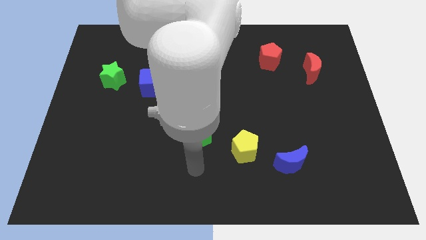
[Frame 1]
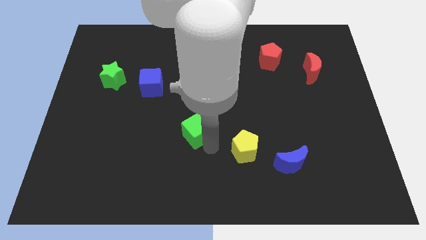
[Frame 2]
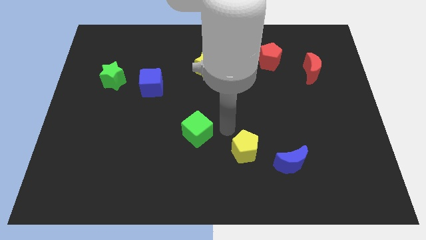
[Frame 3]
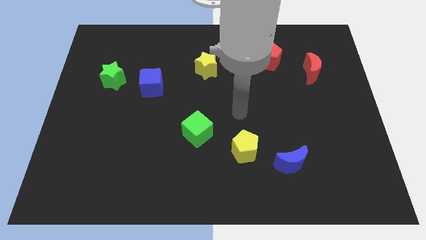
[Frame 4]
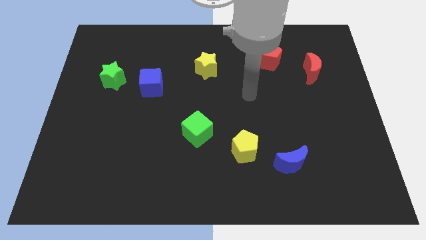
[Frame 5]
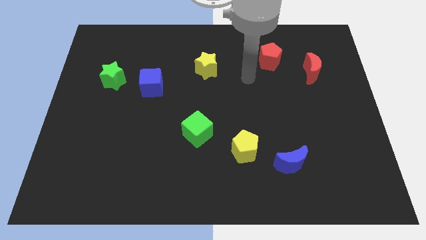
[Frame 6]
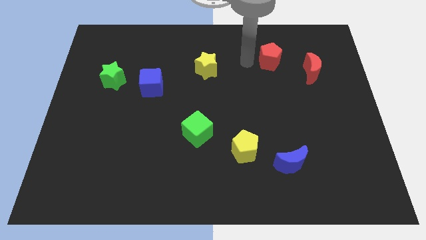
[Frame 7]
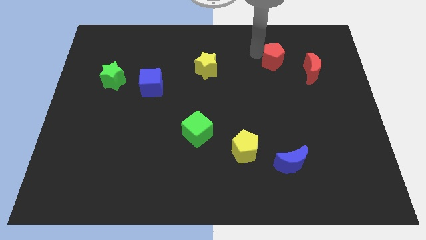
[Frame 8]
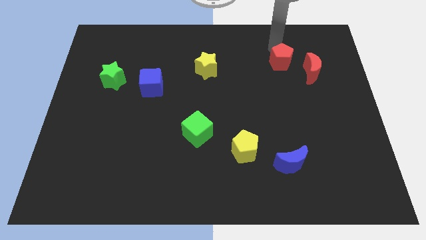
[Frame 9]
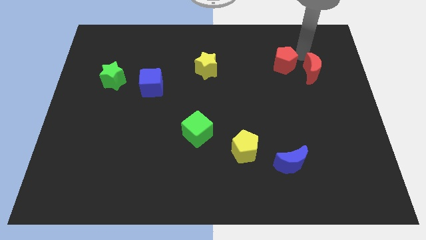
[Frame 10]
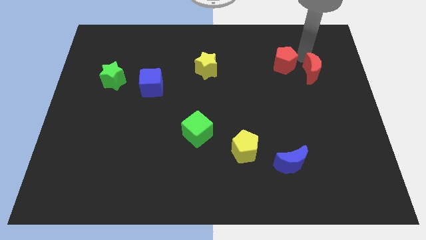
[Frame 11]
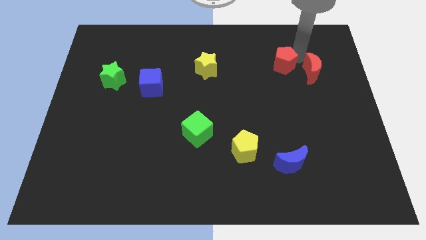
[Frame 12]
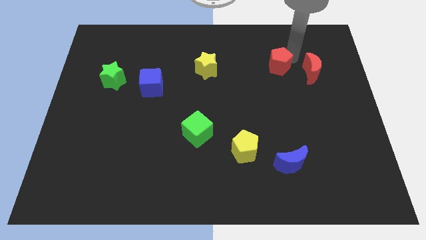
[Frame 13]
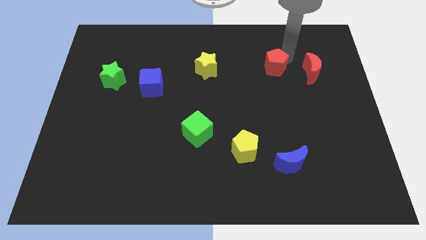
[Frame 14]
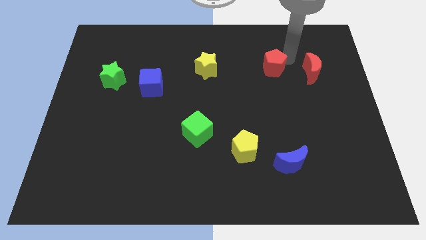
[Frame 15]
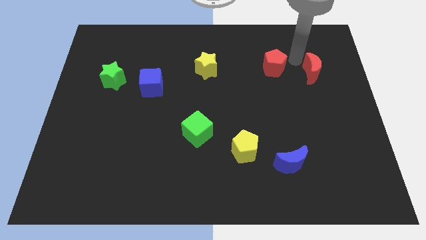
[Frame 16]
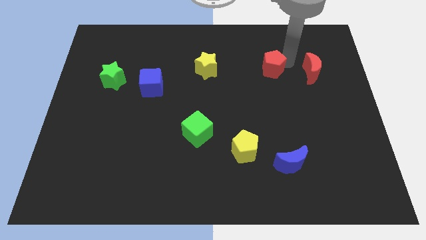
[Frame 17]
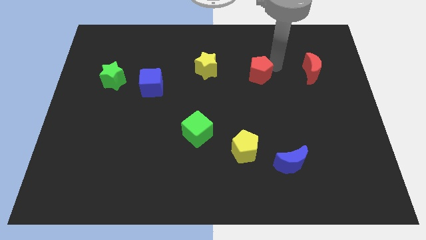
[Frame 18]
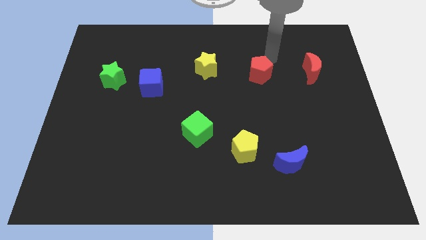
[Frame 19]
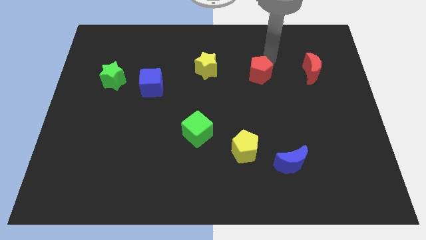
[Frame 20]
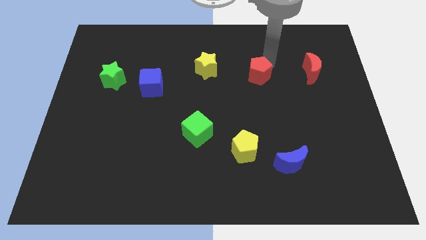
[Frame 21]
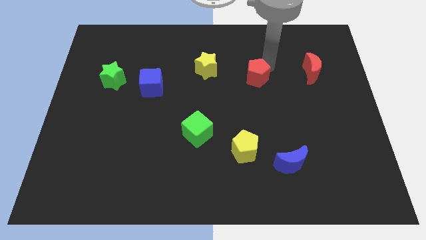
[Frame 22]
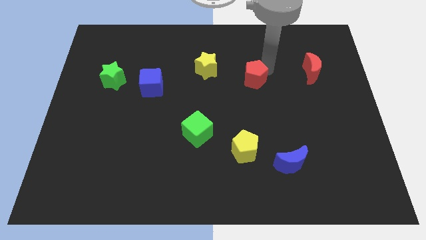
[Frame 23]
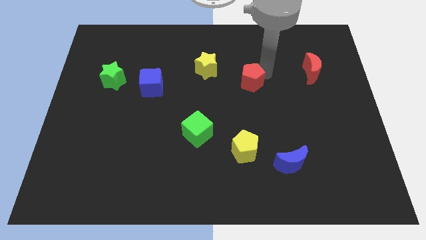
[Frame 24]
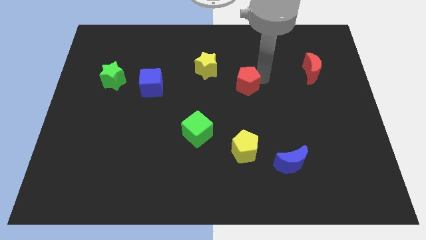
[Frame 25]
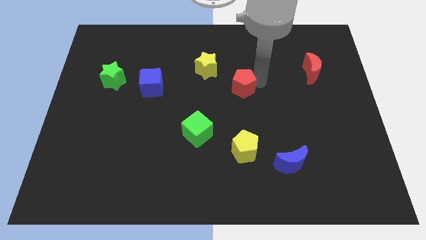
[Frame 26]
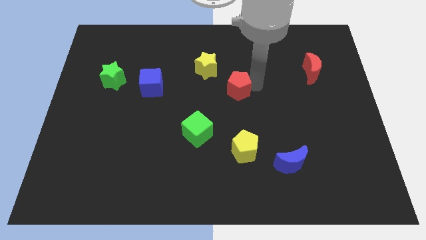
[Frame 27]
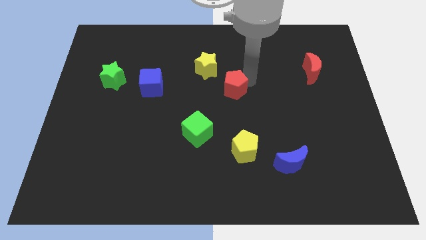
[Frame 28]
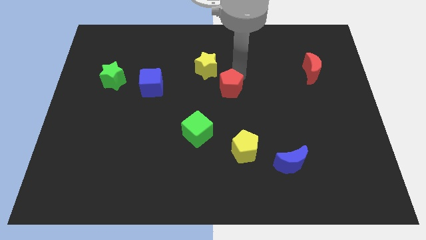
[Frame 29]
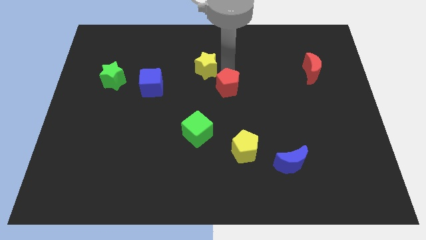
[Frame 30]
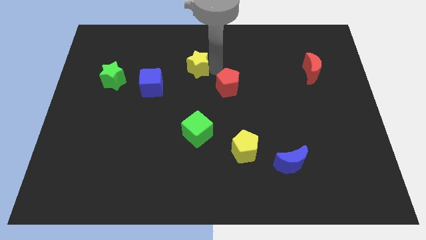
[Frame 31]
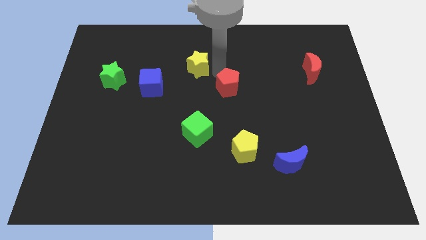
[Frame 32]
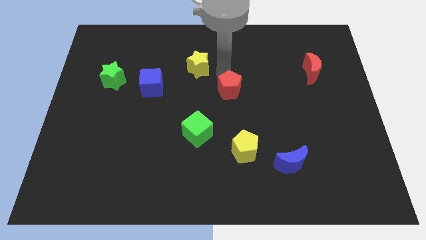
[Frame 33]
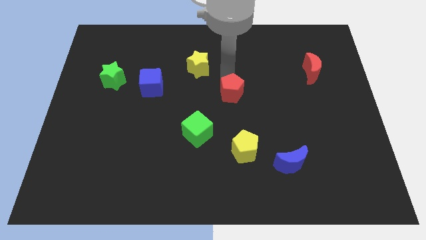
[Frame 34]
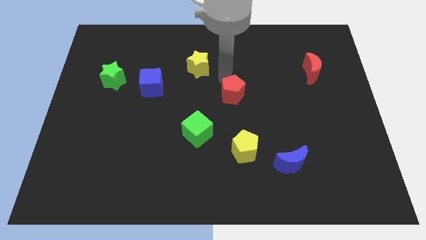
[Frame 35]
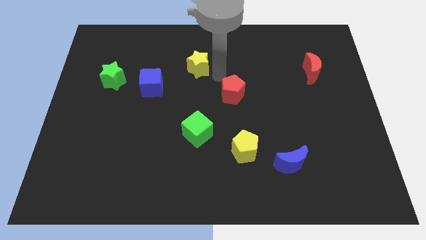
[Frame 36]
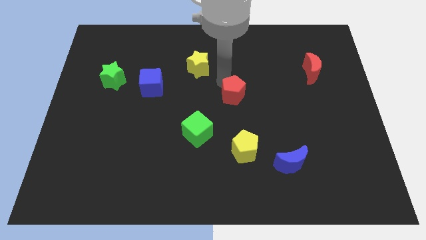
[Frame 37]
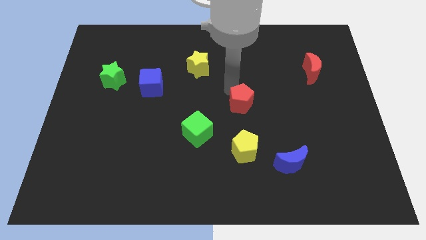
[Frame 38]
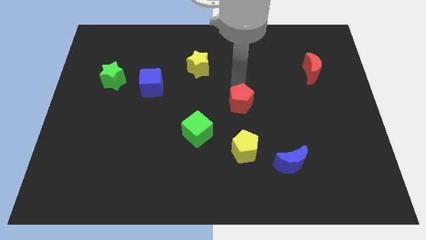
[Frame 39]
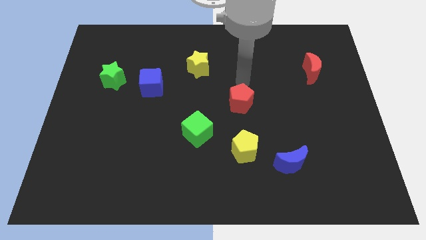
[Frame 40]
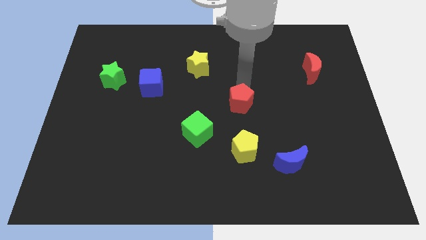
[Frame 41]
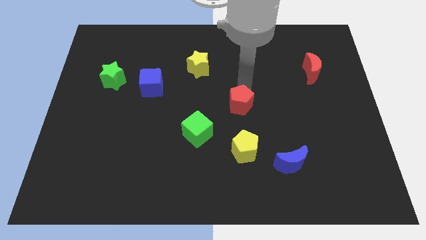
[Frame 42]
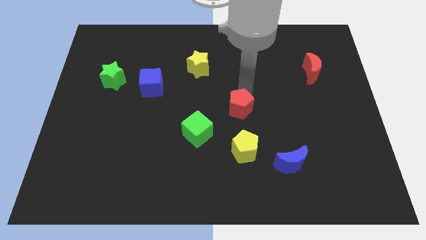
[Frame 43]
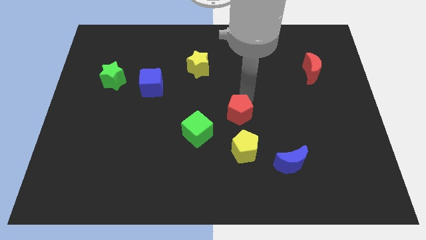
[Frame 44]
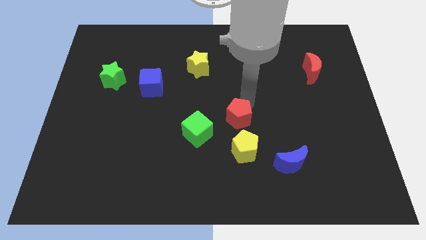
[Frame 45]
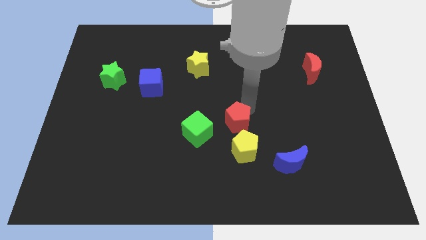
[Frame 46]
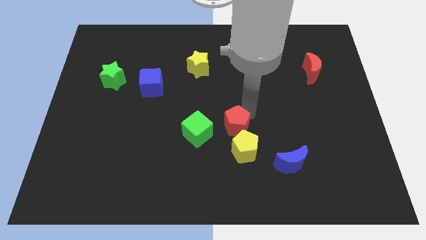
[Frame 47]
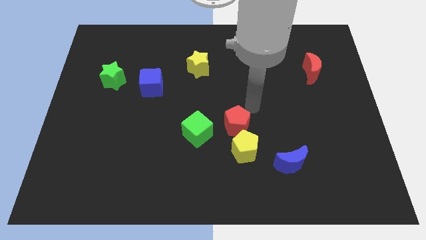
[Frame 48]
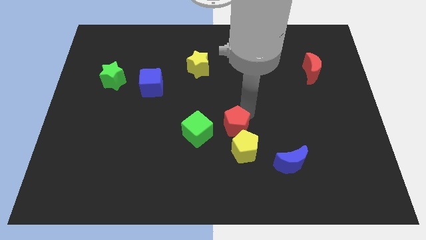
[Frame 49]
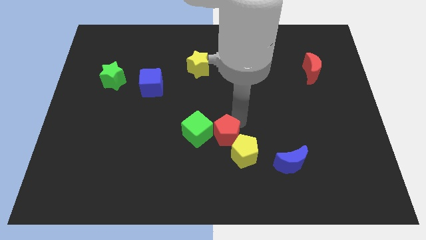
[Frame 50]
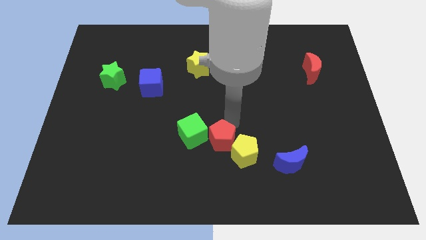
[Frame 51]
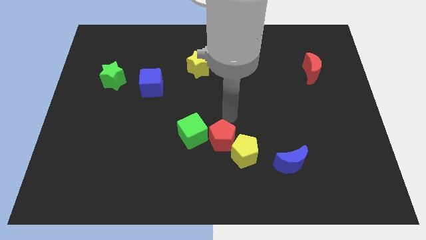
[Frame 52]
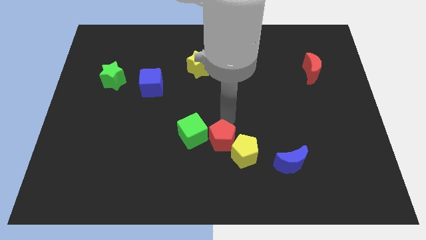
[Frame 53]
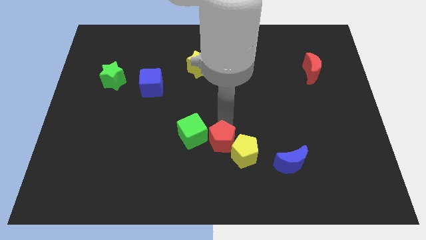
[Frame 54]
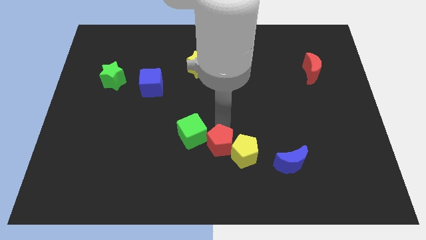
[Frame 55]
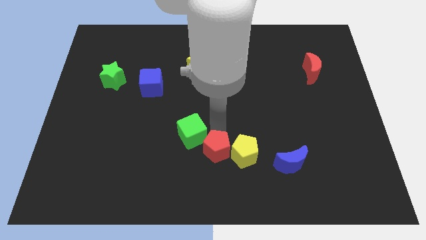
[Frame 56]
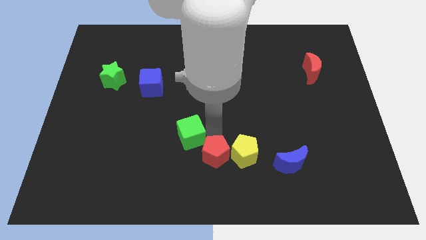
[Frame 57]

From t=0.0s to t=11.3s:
put the red pentagon to the bottom

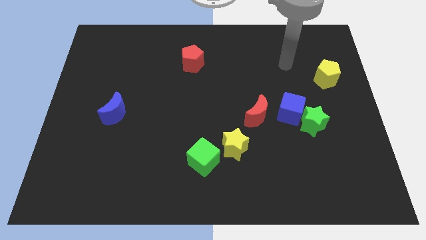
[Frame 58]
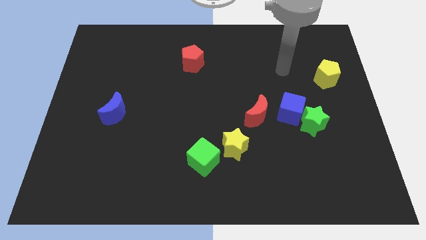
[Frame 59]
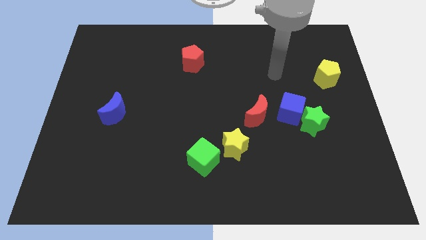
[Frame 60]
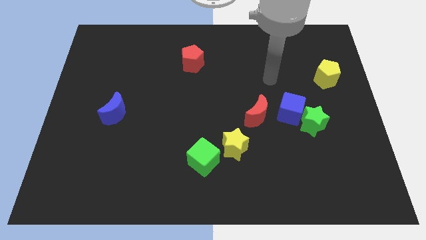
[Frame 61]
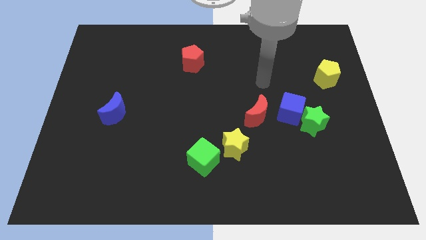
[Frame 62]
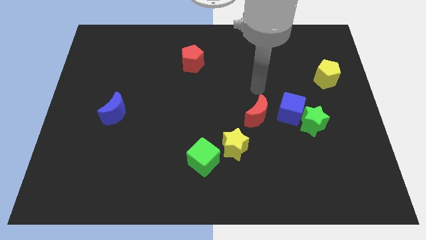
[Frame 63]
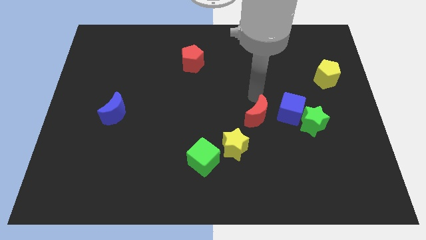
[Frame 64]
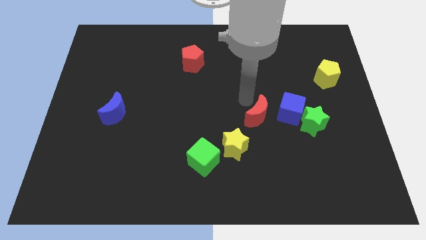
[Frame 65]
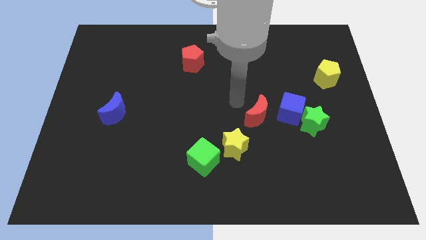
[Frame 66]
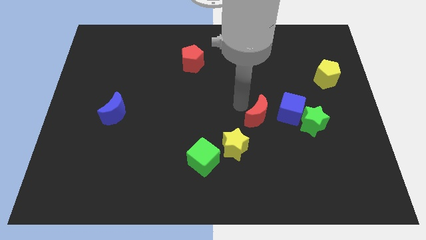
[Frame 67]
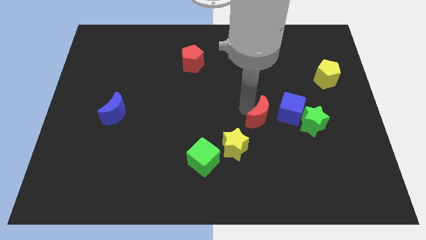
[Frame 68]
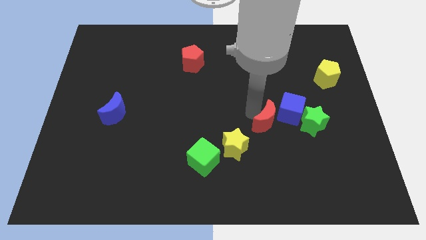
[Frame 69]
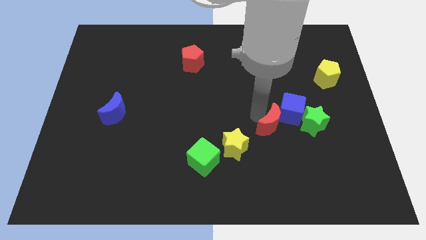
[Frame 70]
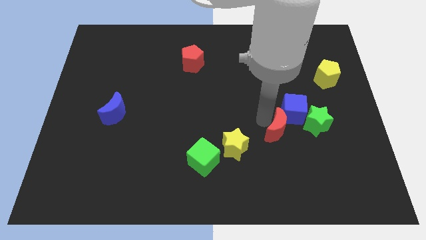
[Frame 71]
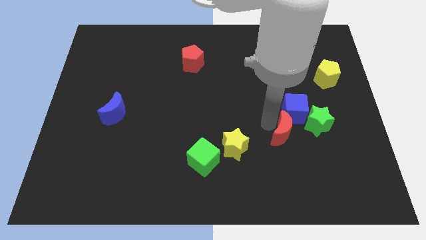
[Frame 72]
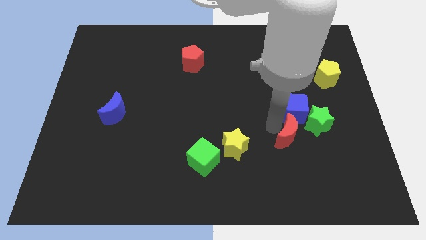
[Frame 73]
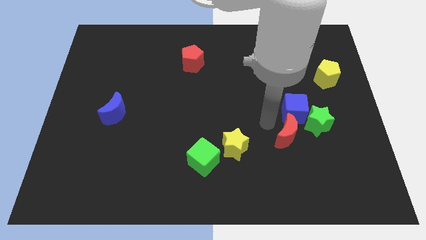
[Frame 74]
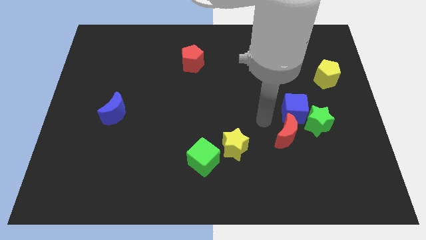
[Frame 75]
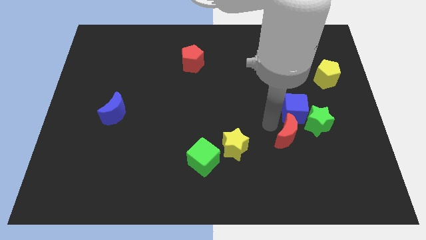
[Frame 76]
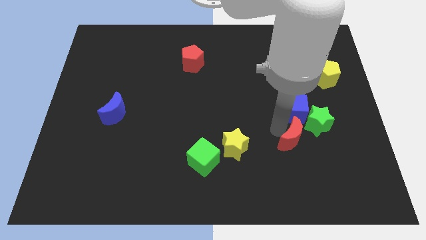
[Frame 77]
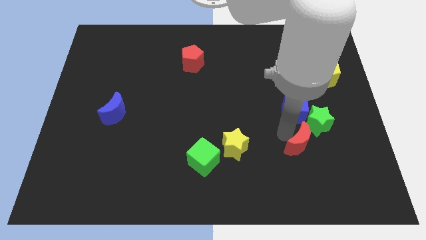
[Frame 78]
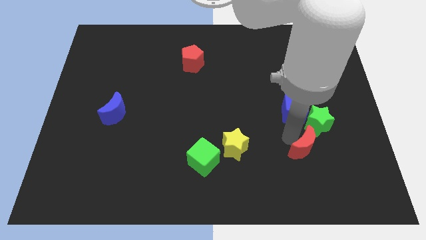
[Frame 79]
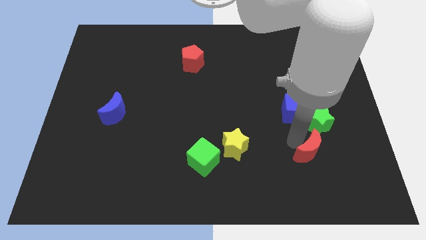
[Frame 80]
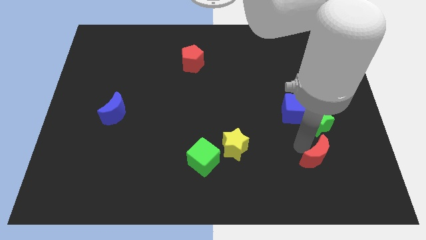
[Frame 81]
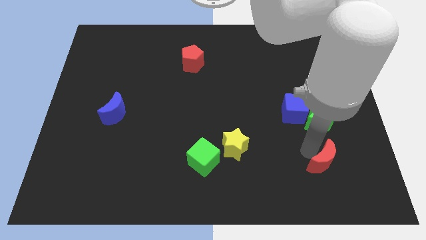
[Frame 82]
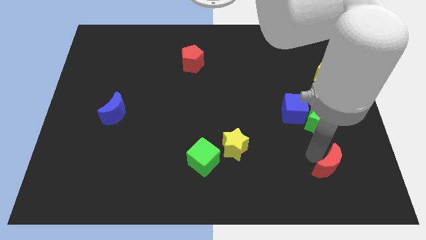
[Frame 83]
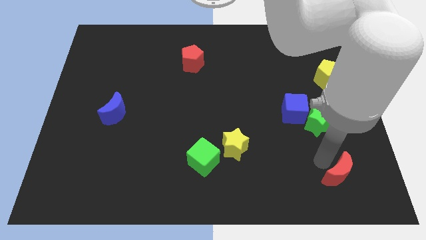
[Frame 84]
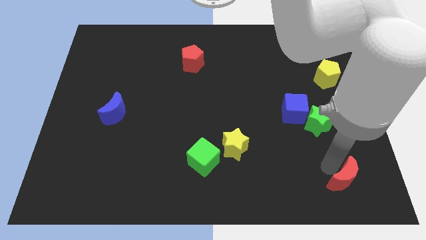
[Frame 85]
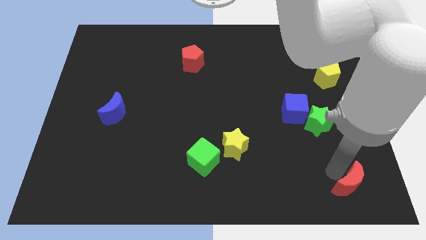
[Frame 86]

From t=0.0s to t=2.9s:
put the red moon to the bottom right corner
